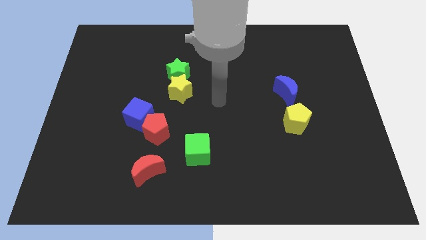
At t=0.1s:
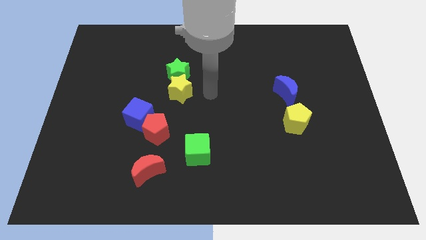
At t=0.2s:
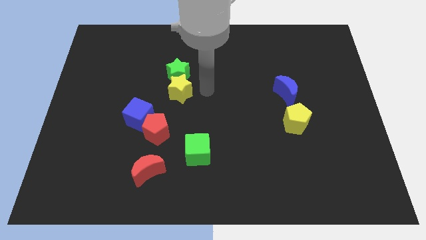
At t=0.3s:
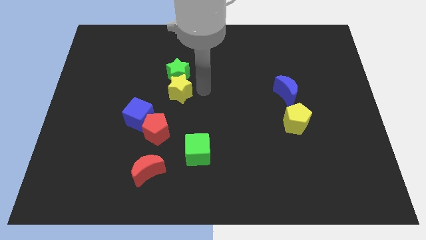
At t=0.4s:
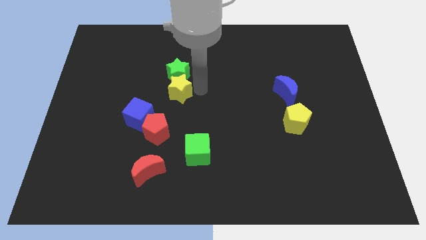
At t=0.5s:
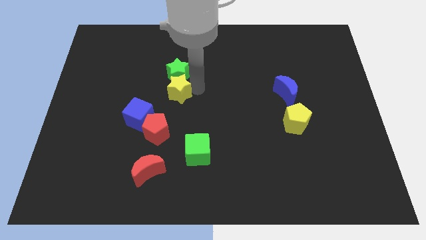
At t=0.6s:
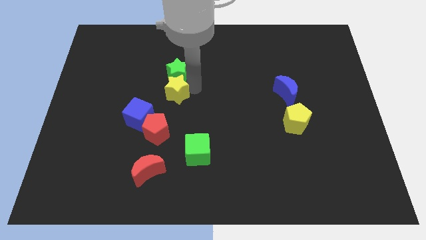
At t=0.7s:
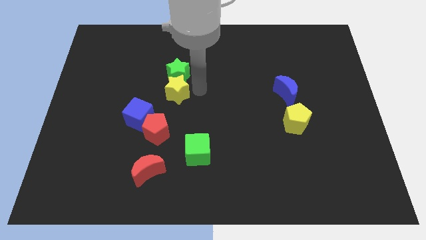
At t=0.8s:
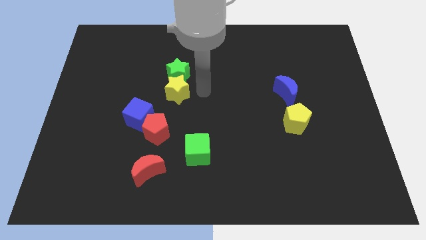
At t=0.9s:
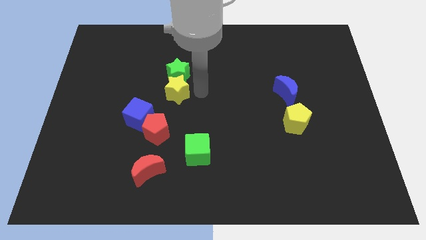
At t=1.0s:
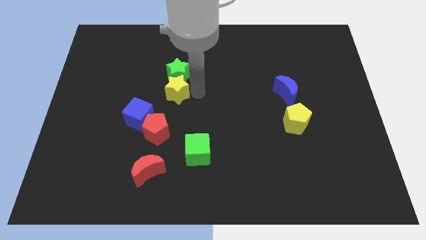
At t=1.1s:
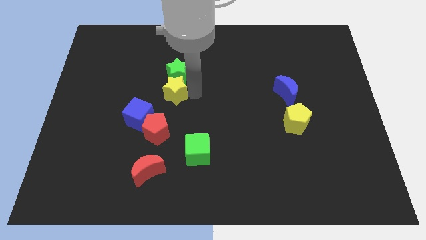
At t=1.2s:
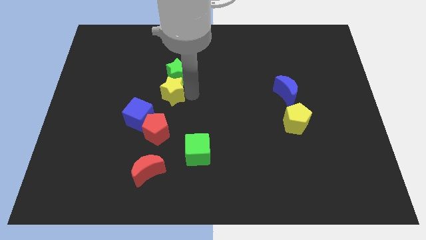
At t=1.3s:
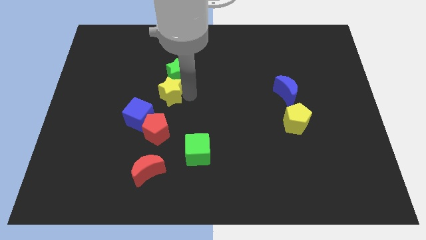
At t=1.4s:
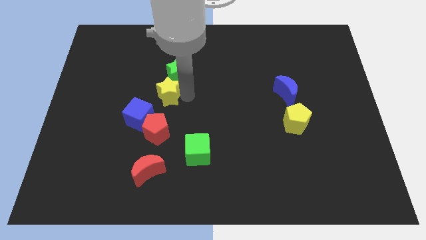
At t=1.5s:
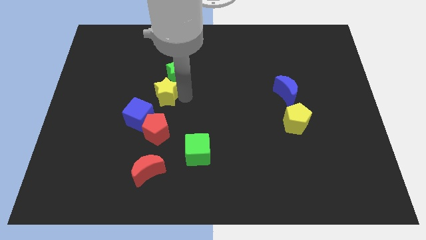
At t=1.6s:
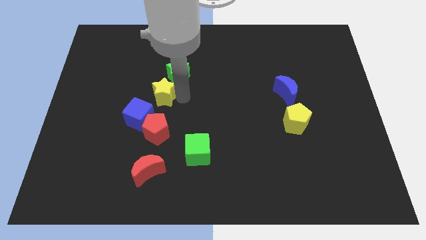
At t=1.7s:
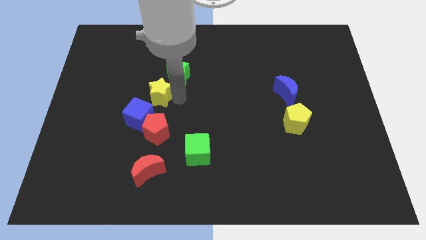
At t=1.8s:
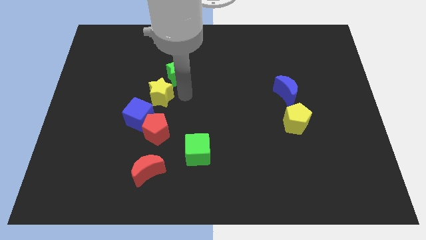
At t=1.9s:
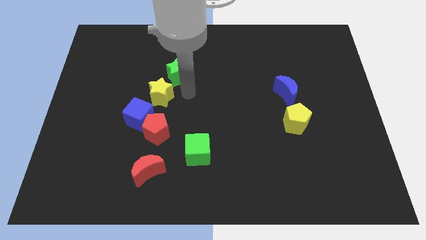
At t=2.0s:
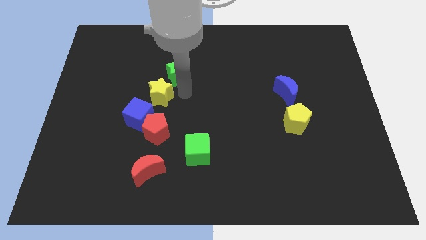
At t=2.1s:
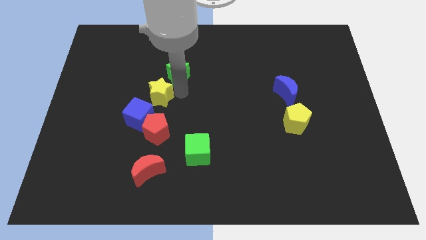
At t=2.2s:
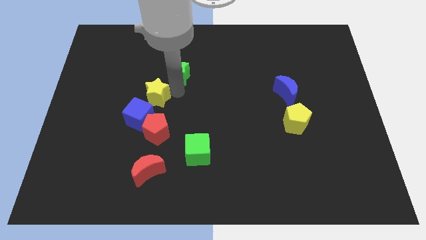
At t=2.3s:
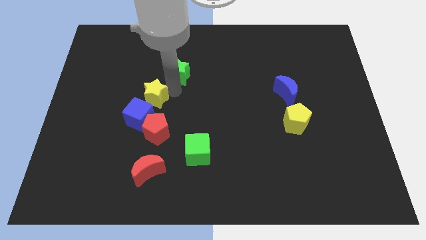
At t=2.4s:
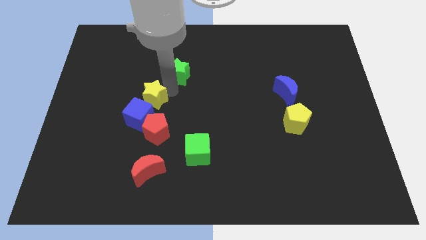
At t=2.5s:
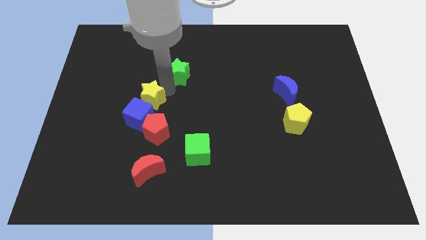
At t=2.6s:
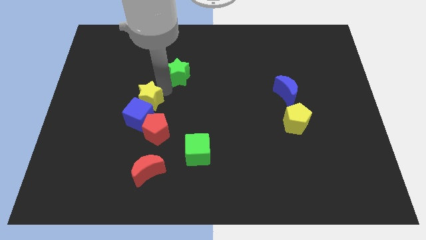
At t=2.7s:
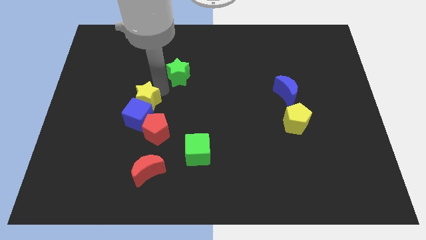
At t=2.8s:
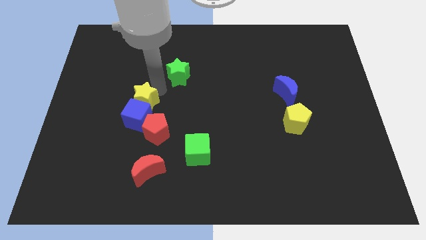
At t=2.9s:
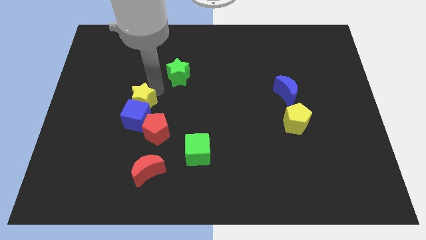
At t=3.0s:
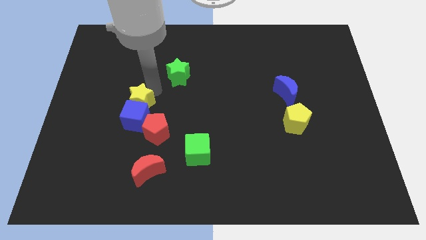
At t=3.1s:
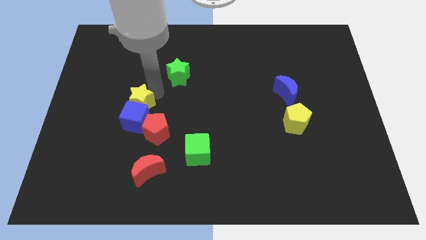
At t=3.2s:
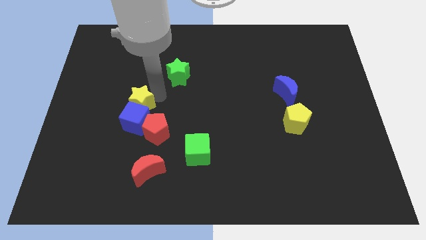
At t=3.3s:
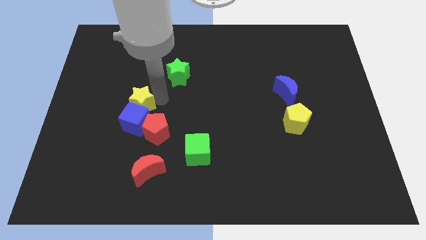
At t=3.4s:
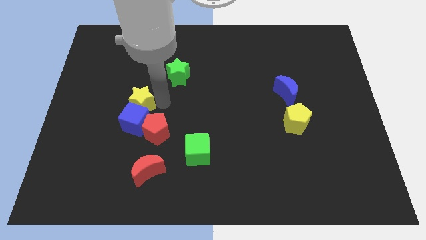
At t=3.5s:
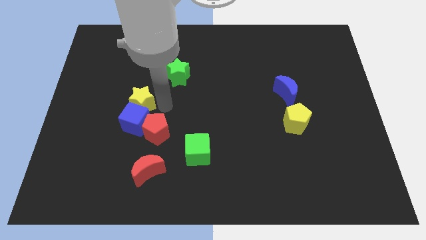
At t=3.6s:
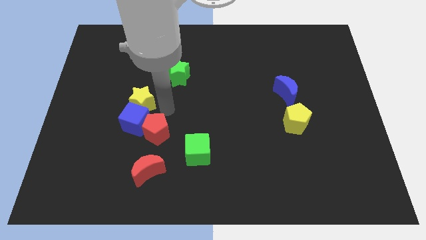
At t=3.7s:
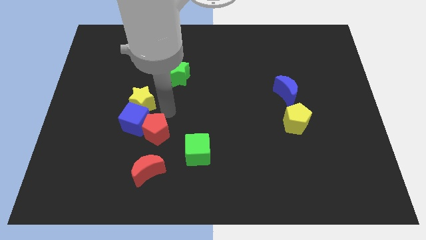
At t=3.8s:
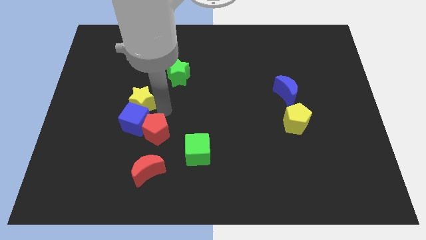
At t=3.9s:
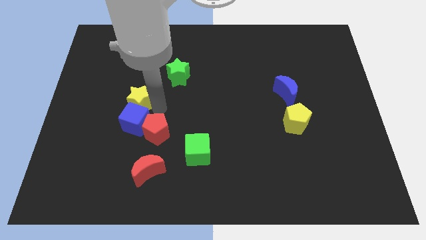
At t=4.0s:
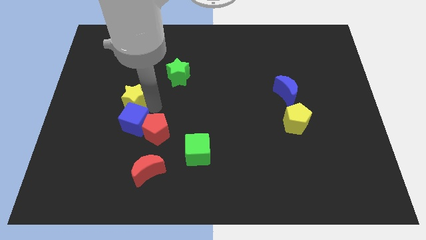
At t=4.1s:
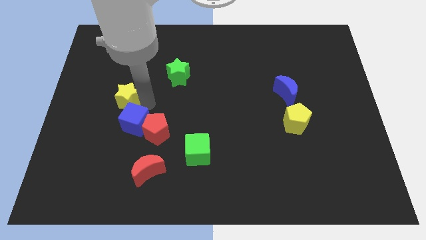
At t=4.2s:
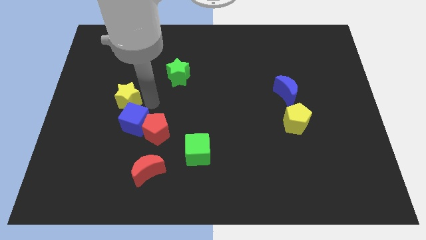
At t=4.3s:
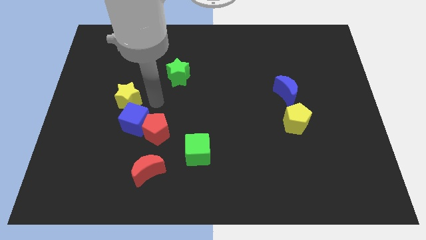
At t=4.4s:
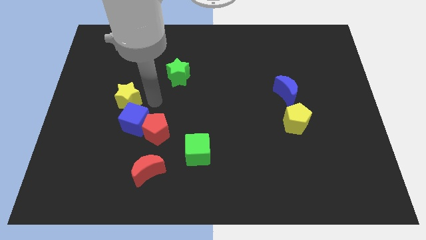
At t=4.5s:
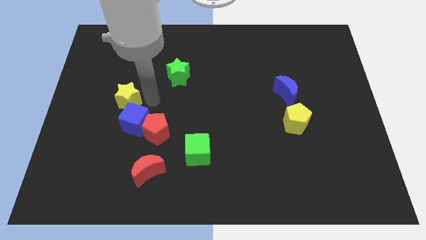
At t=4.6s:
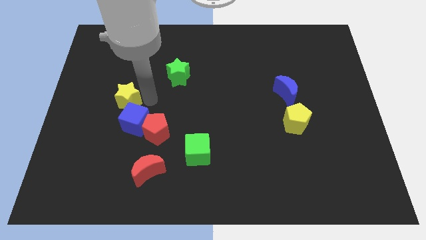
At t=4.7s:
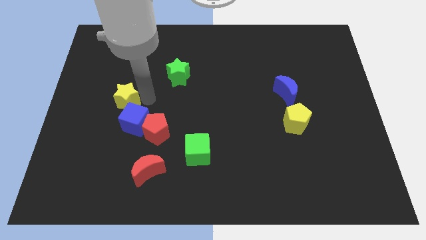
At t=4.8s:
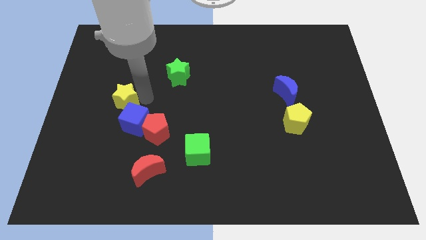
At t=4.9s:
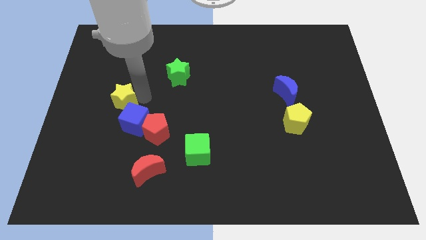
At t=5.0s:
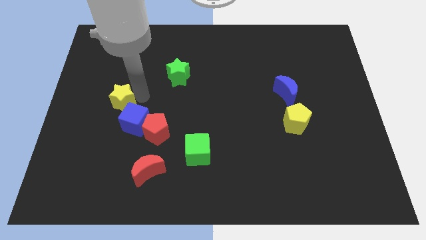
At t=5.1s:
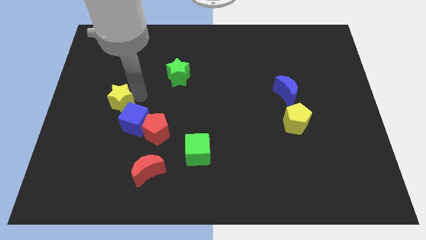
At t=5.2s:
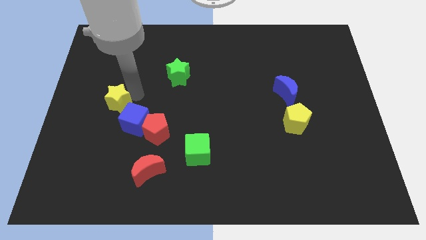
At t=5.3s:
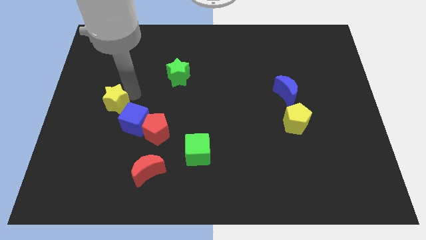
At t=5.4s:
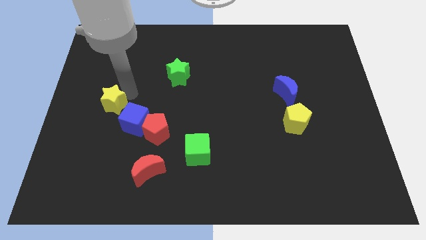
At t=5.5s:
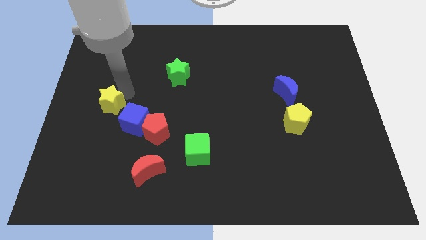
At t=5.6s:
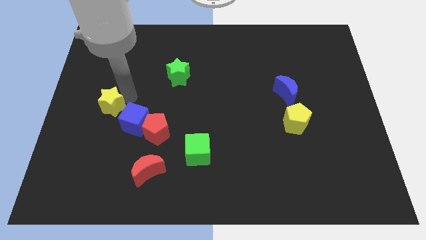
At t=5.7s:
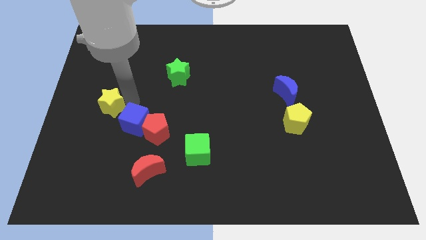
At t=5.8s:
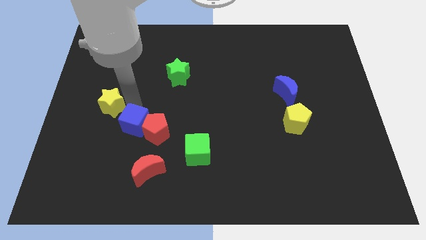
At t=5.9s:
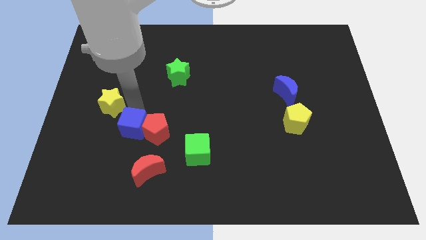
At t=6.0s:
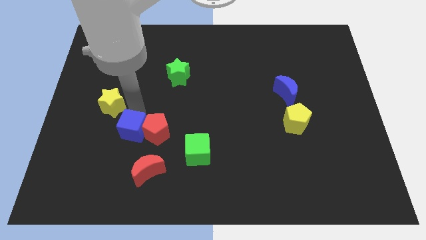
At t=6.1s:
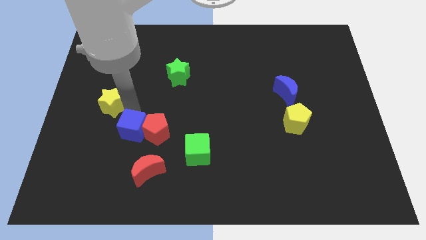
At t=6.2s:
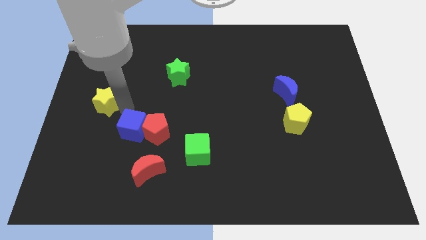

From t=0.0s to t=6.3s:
slide the yellow star to the left side of the board
